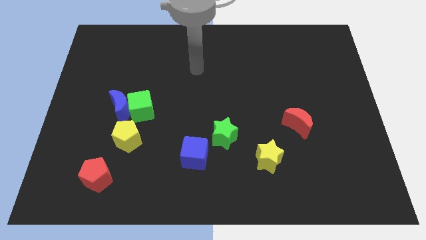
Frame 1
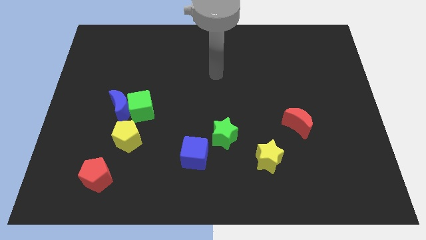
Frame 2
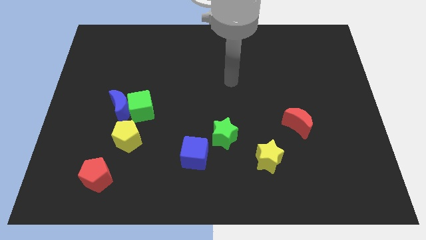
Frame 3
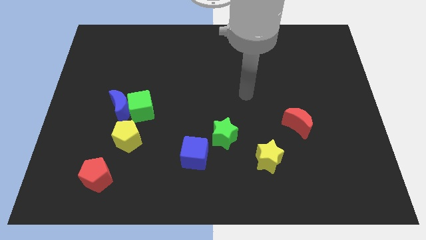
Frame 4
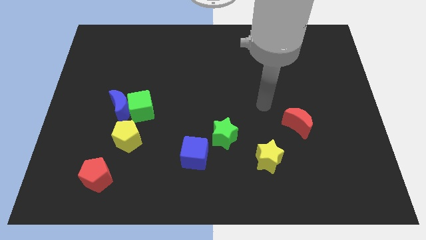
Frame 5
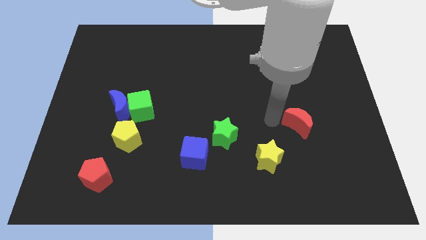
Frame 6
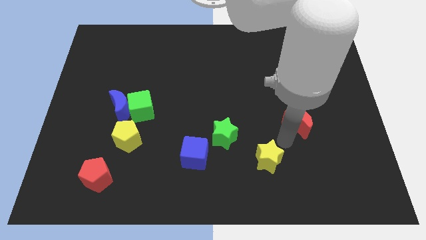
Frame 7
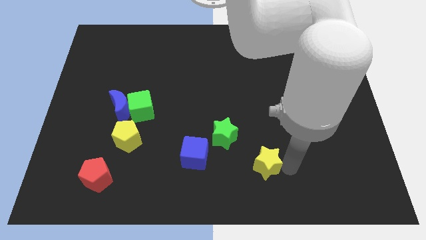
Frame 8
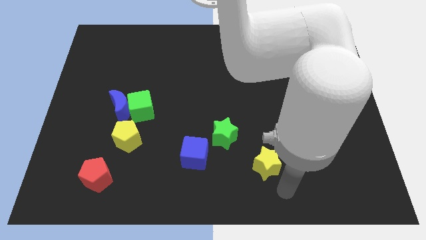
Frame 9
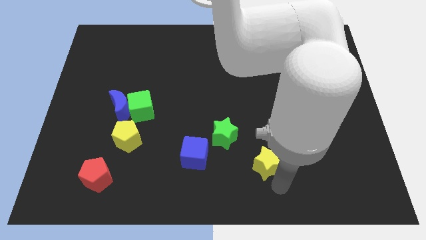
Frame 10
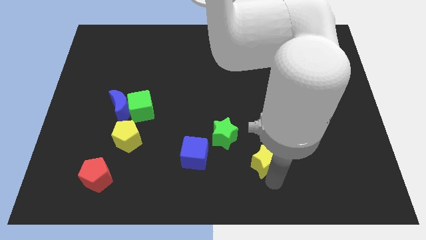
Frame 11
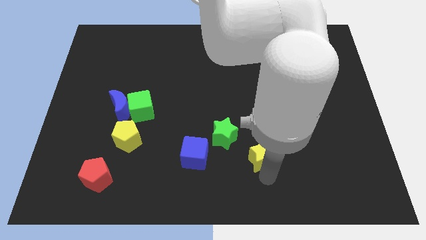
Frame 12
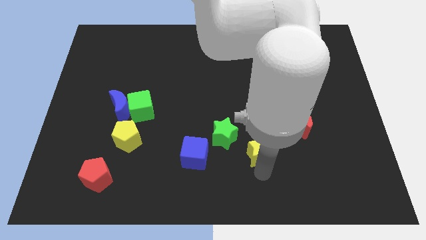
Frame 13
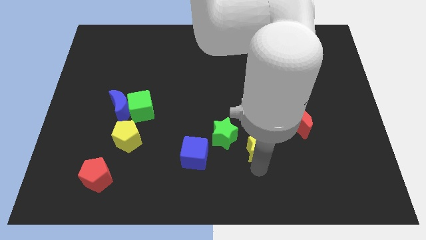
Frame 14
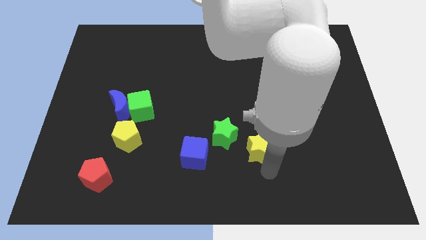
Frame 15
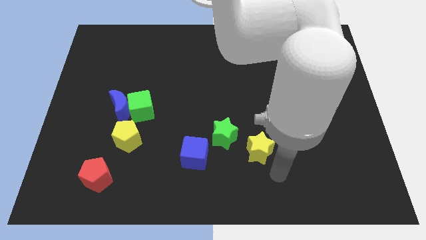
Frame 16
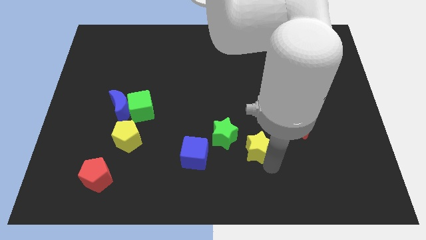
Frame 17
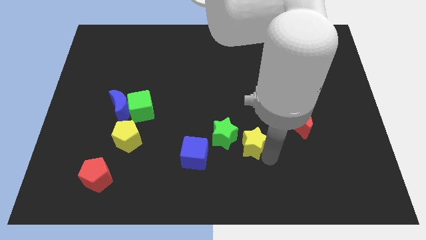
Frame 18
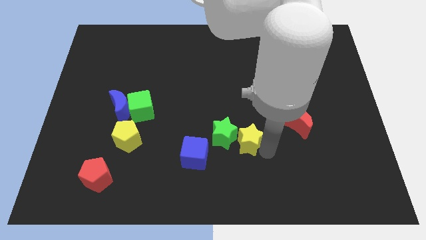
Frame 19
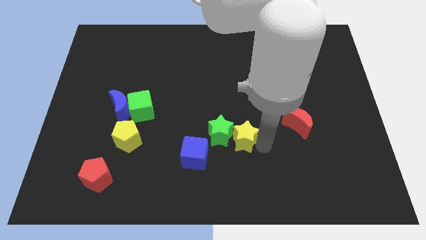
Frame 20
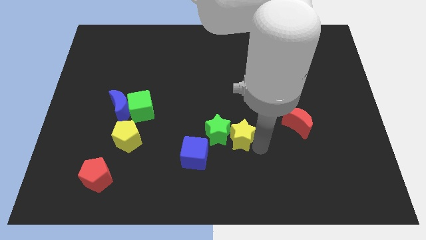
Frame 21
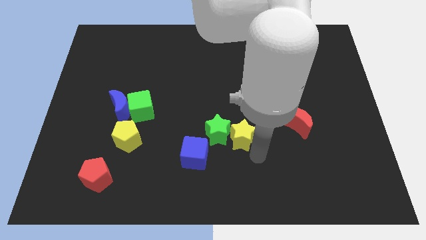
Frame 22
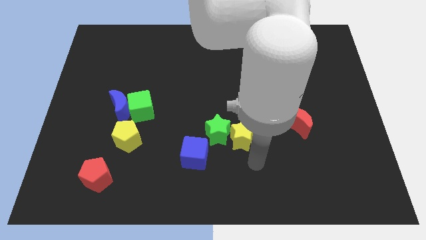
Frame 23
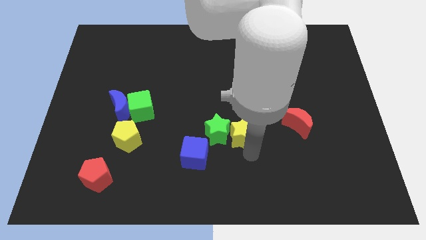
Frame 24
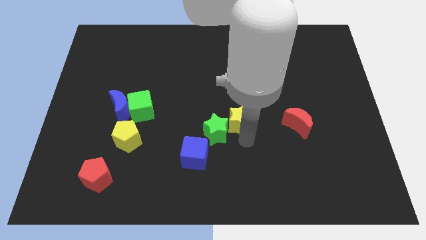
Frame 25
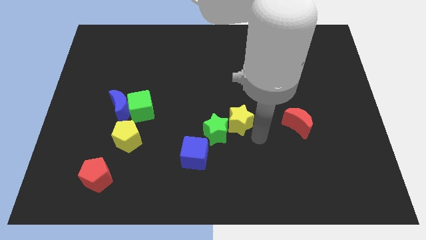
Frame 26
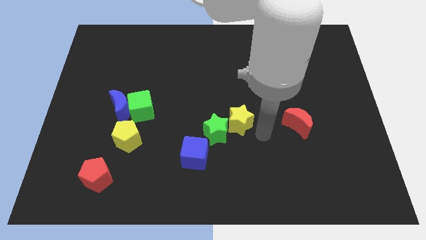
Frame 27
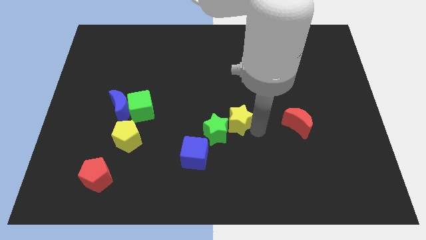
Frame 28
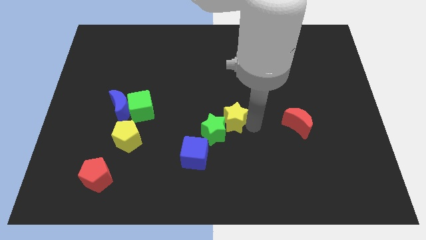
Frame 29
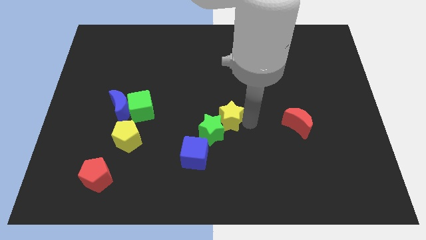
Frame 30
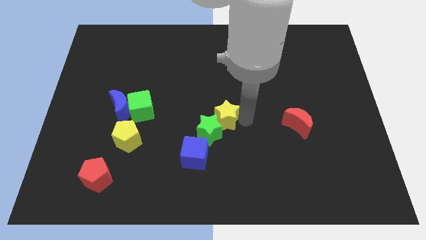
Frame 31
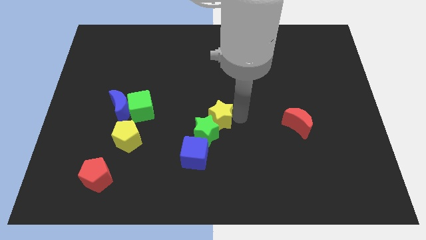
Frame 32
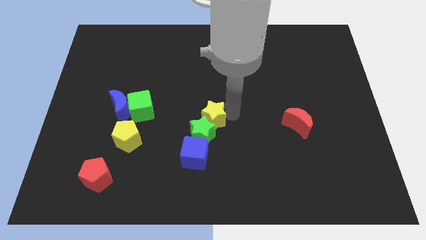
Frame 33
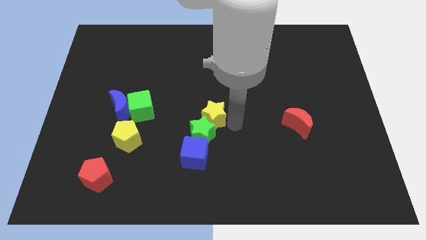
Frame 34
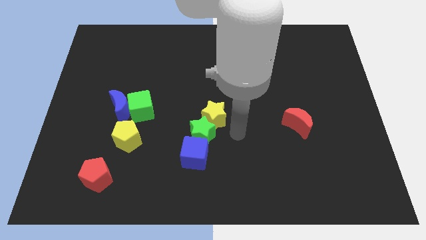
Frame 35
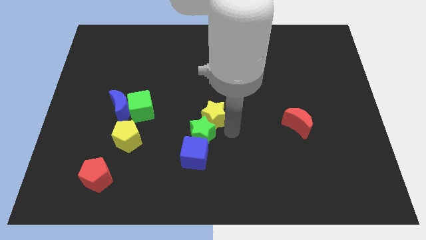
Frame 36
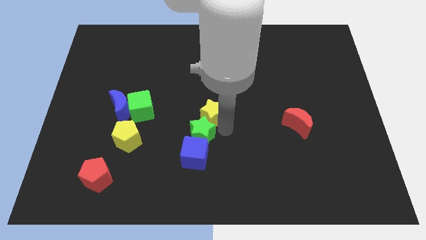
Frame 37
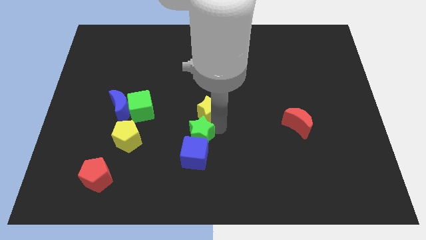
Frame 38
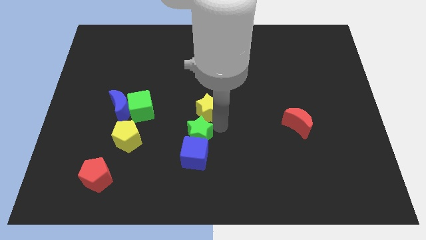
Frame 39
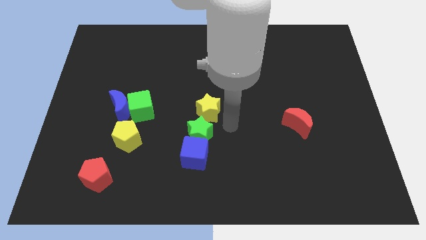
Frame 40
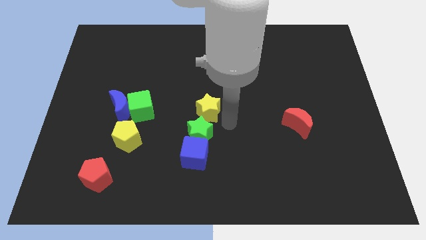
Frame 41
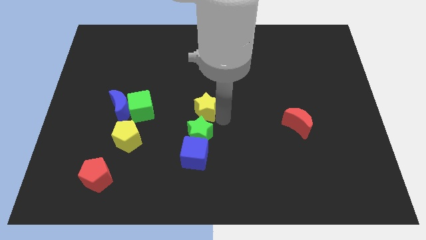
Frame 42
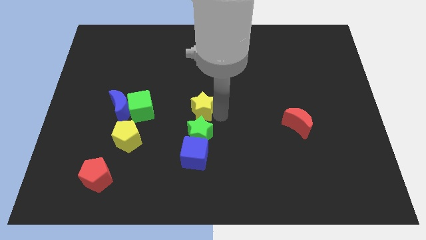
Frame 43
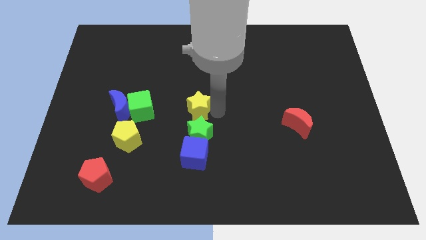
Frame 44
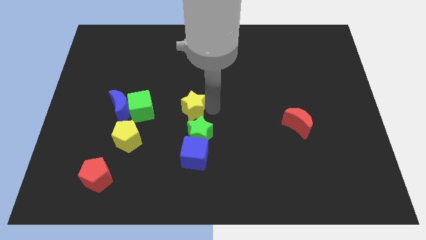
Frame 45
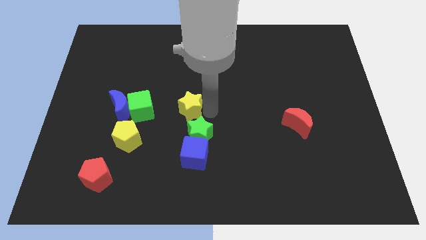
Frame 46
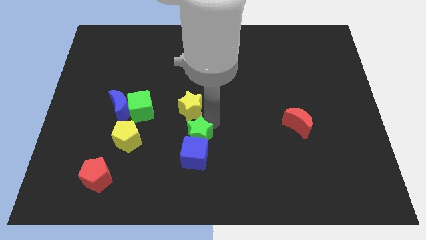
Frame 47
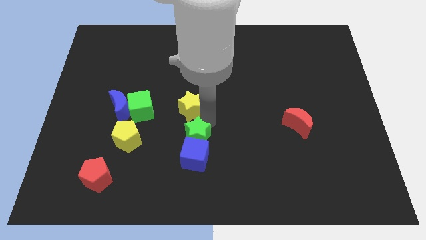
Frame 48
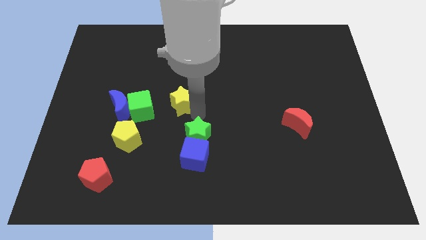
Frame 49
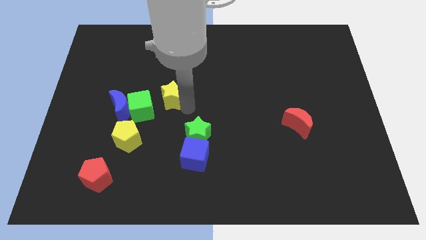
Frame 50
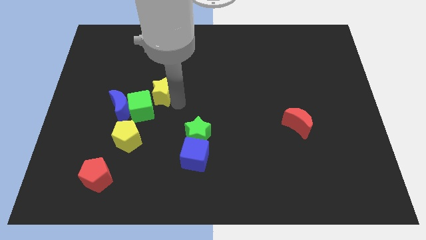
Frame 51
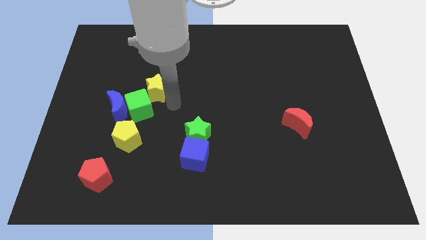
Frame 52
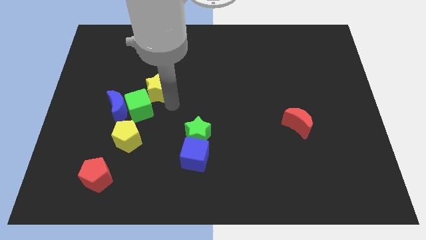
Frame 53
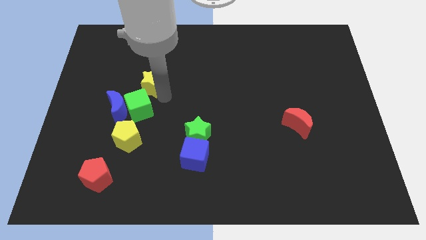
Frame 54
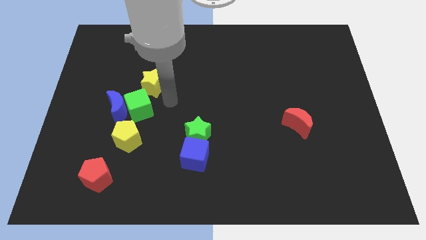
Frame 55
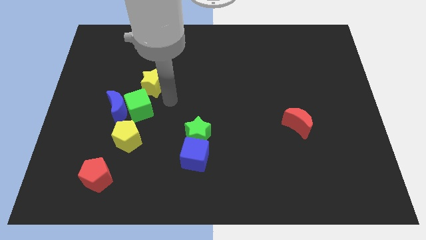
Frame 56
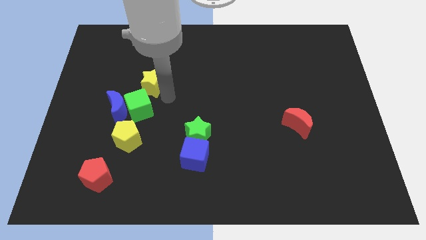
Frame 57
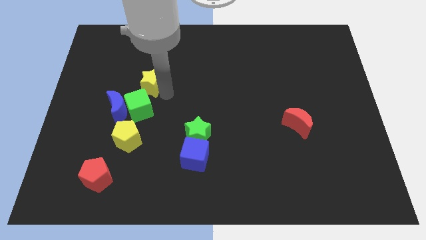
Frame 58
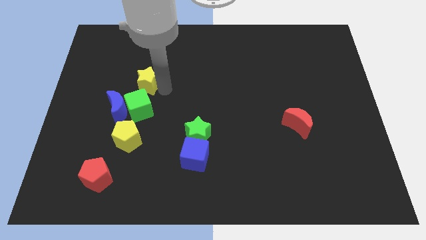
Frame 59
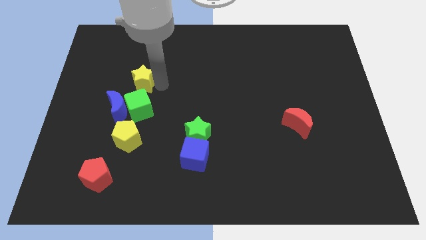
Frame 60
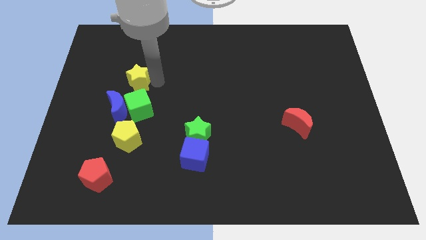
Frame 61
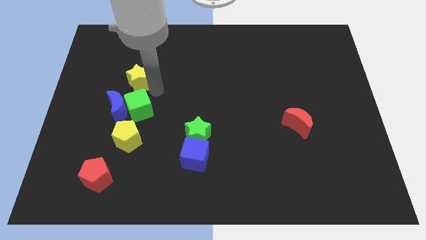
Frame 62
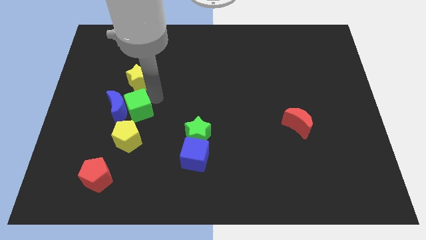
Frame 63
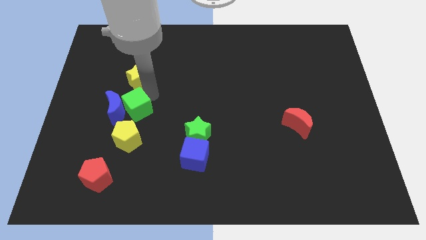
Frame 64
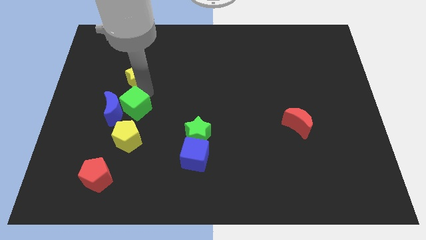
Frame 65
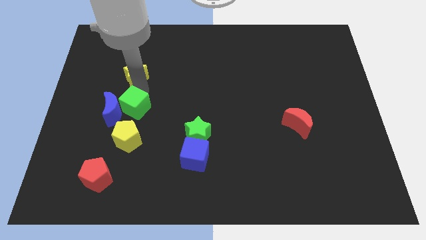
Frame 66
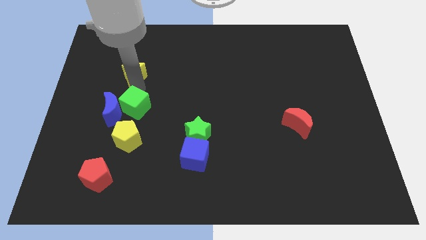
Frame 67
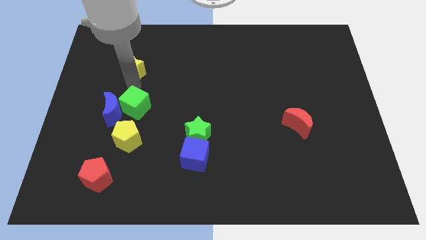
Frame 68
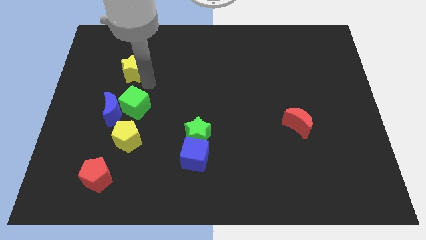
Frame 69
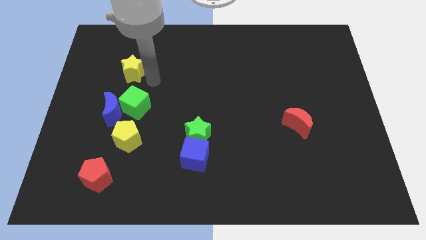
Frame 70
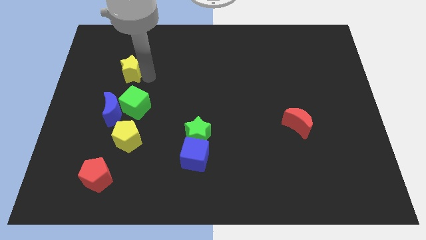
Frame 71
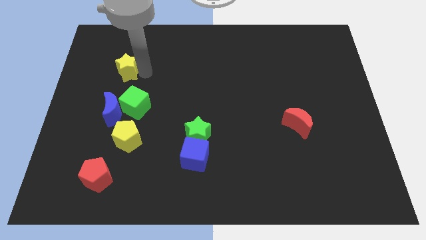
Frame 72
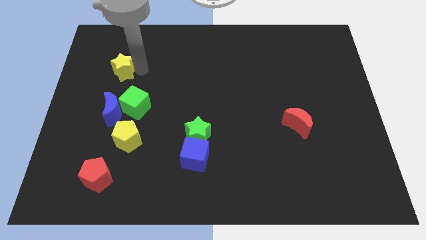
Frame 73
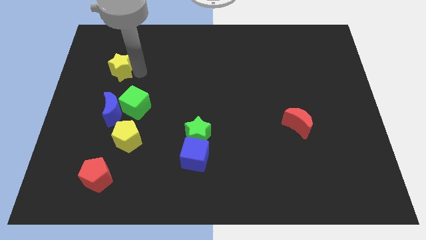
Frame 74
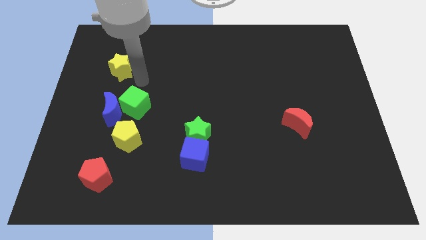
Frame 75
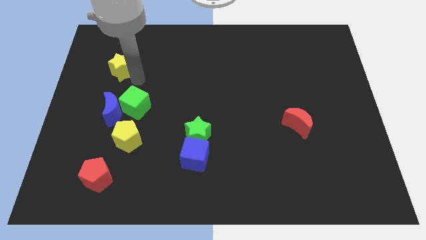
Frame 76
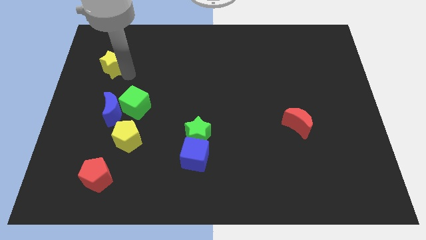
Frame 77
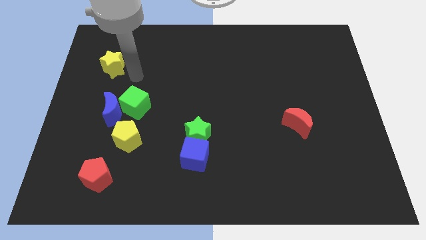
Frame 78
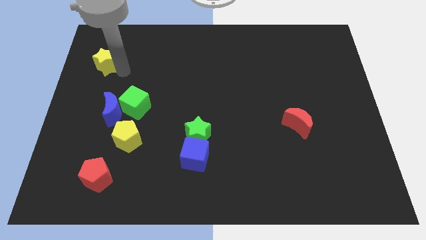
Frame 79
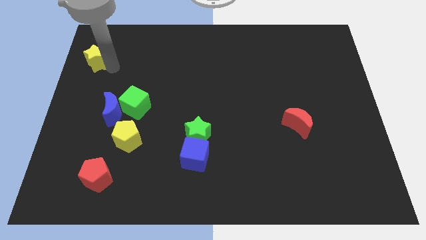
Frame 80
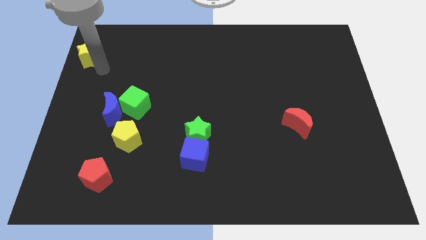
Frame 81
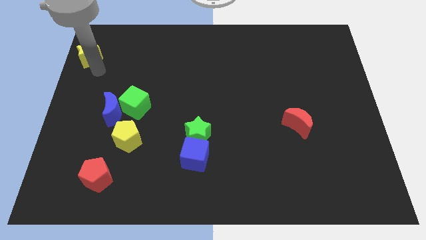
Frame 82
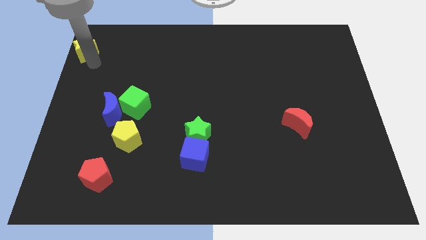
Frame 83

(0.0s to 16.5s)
move the yellow star to the upper left corner
